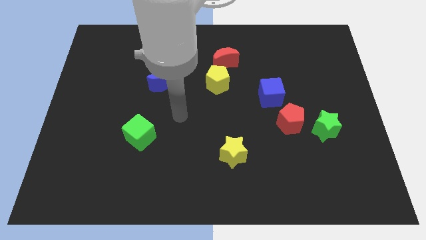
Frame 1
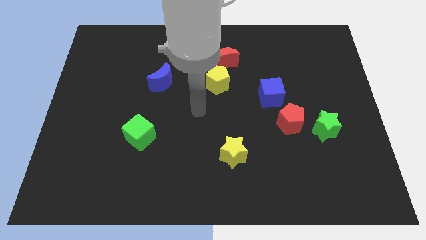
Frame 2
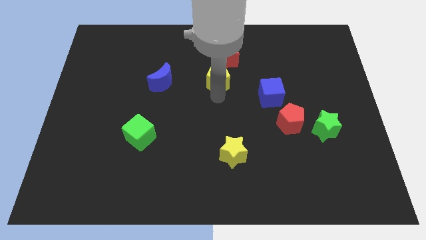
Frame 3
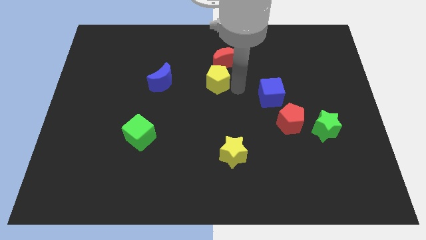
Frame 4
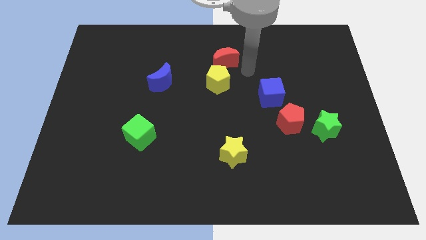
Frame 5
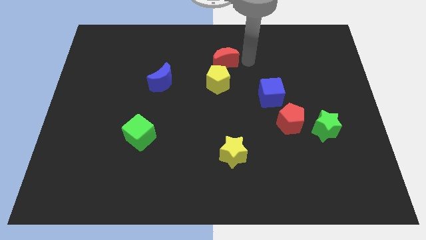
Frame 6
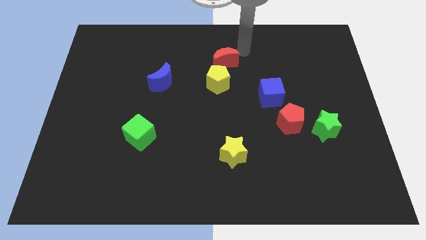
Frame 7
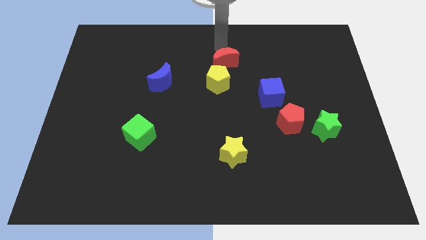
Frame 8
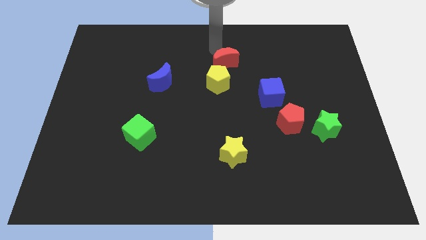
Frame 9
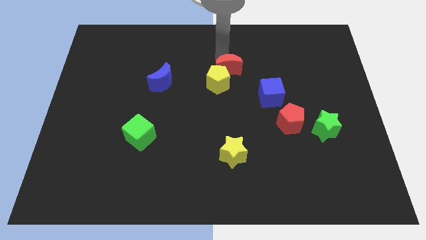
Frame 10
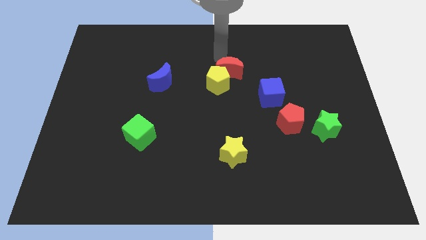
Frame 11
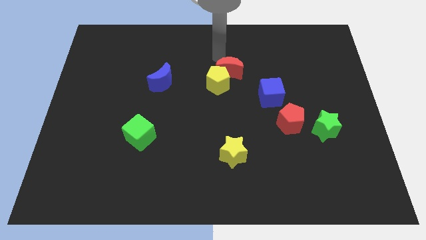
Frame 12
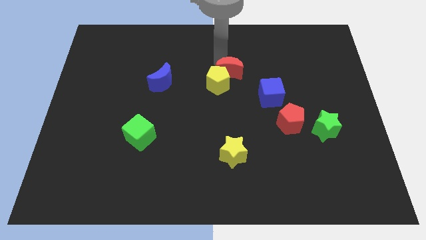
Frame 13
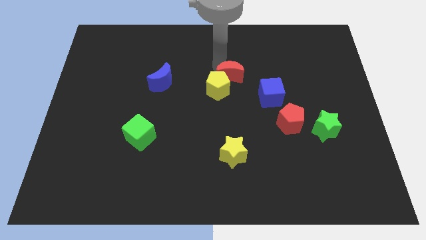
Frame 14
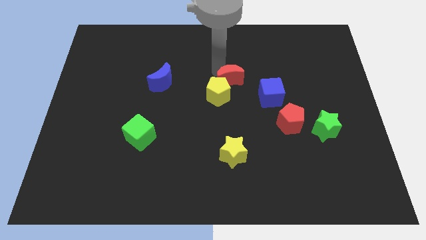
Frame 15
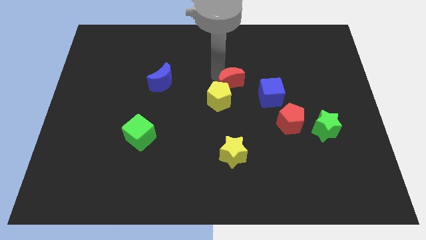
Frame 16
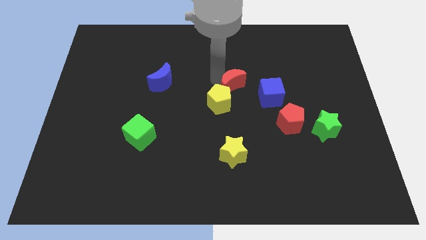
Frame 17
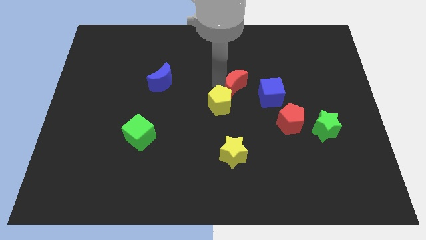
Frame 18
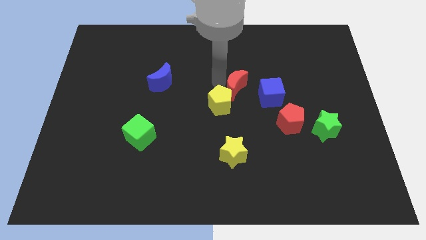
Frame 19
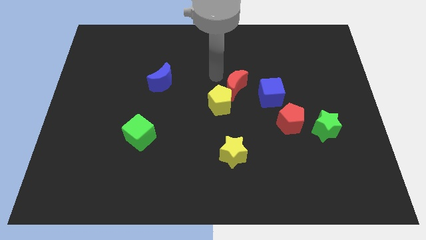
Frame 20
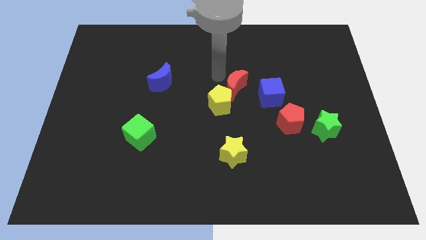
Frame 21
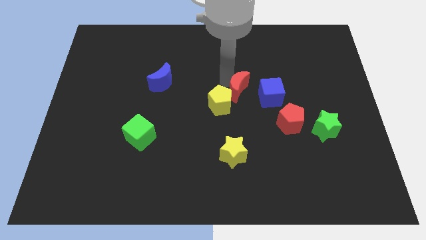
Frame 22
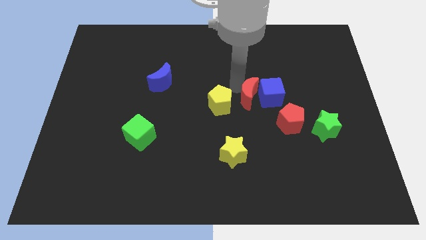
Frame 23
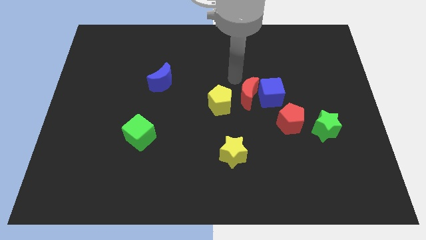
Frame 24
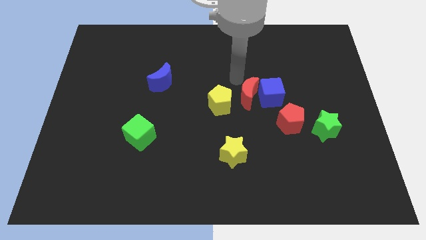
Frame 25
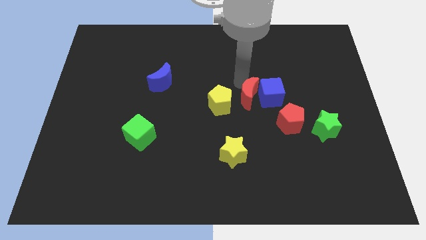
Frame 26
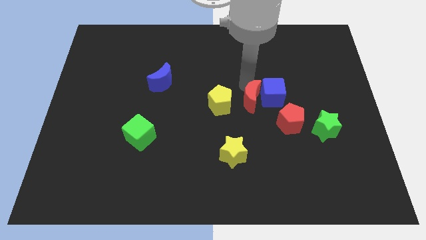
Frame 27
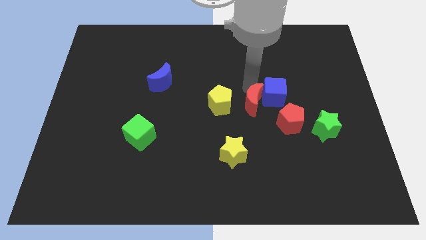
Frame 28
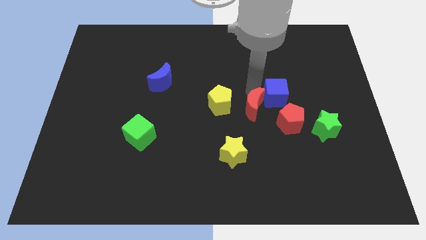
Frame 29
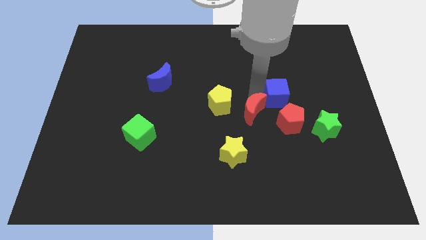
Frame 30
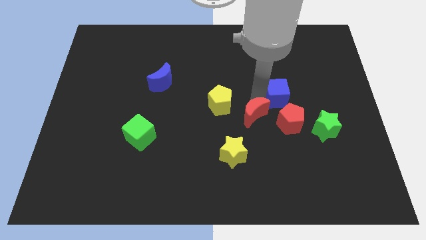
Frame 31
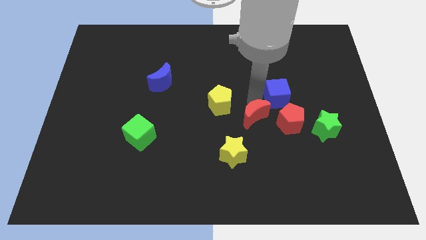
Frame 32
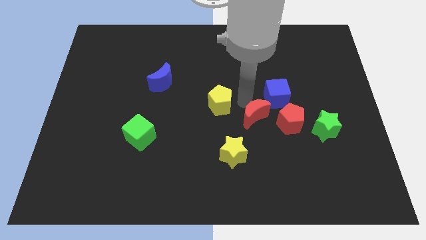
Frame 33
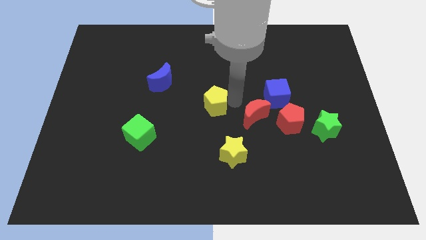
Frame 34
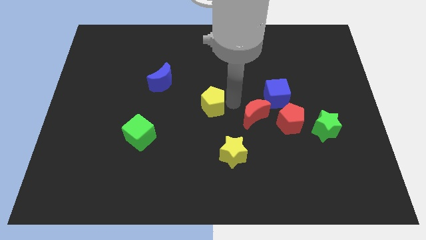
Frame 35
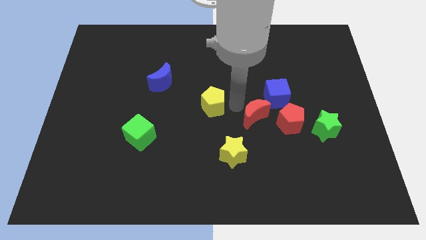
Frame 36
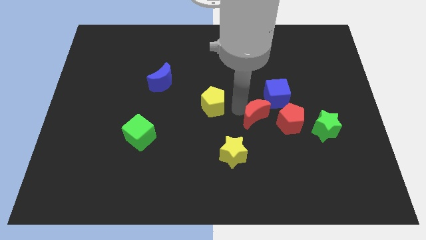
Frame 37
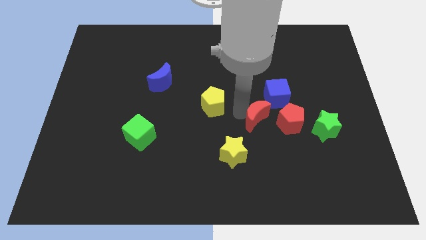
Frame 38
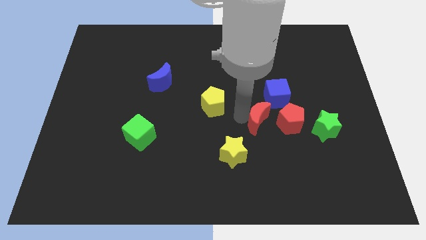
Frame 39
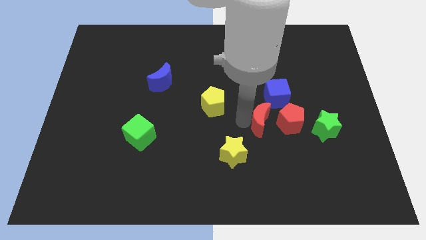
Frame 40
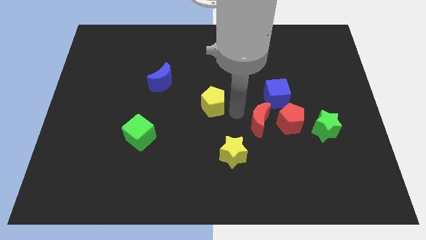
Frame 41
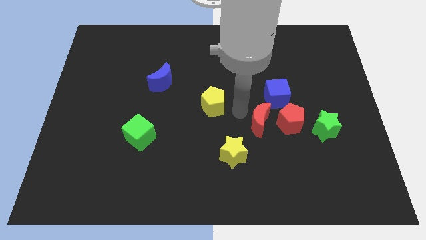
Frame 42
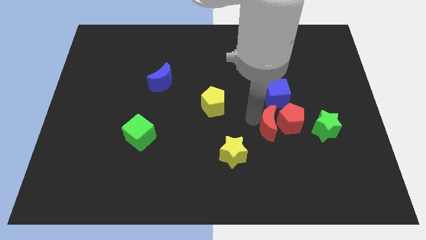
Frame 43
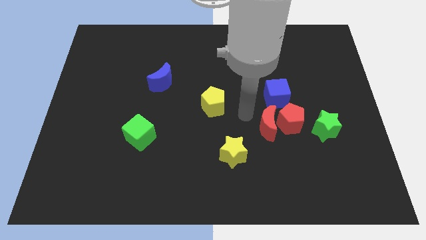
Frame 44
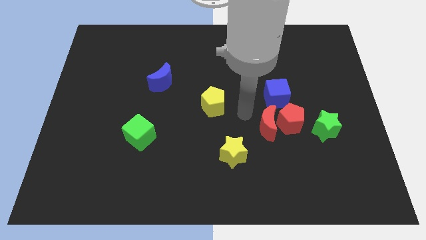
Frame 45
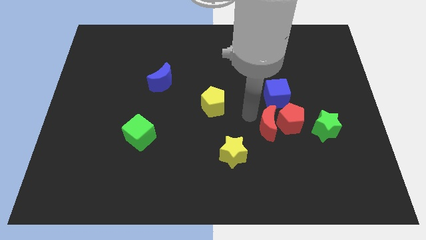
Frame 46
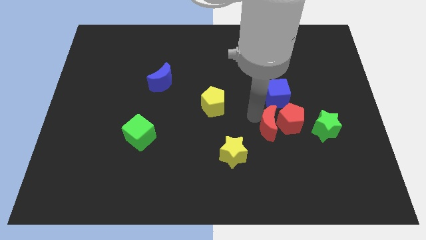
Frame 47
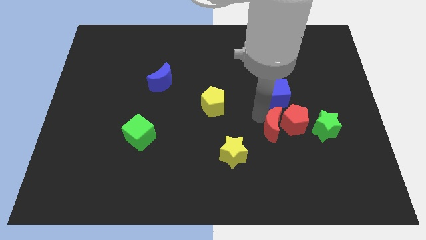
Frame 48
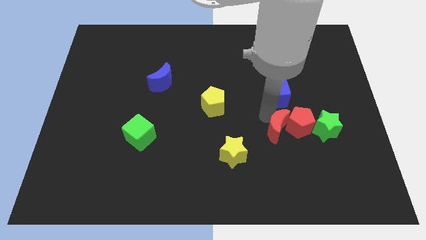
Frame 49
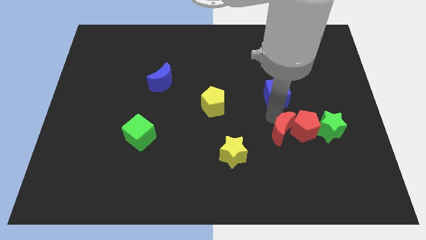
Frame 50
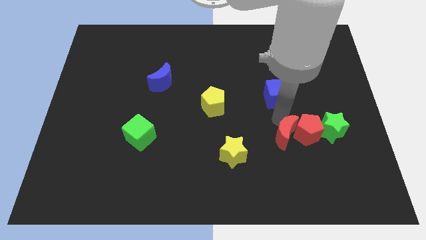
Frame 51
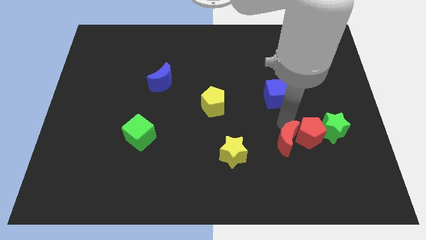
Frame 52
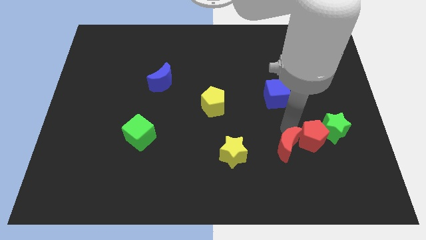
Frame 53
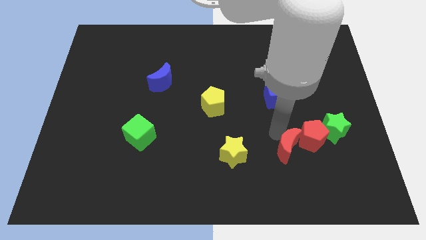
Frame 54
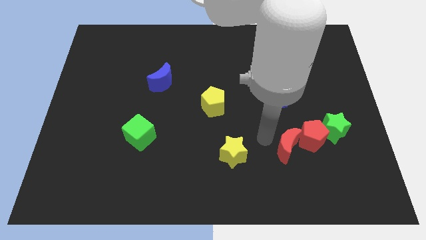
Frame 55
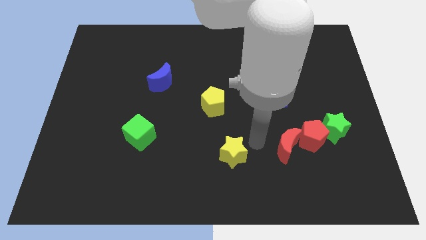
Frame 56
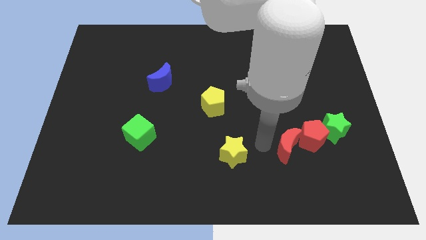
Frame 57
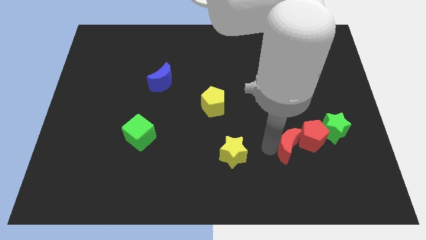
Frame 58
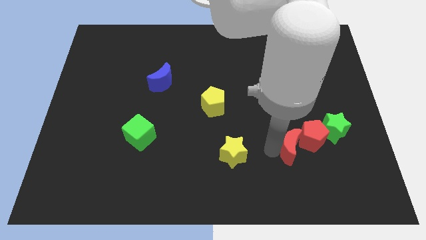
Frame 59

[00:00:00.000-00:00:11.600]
put the red moon diagonally down and to the left of the green star

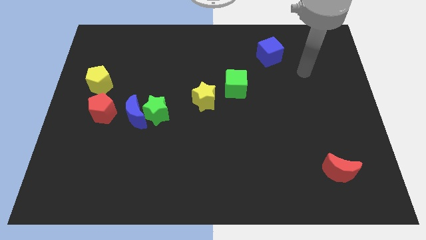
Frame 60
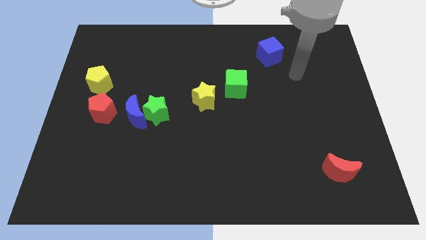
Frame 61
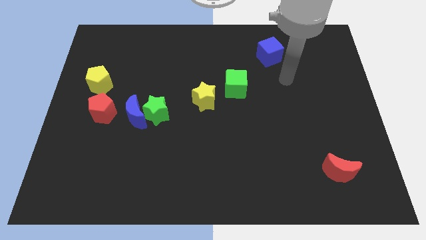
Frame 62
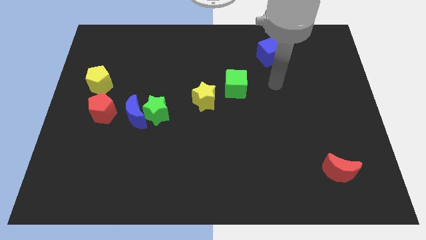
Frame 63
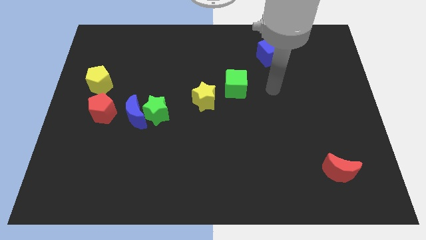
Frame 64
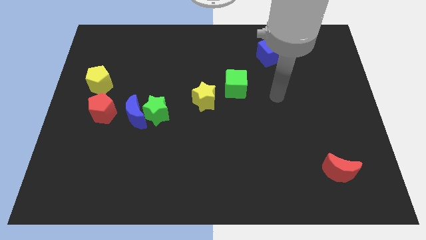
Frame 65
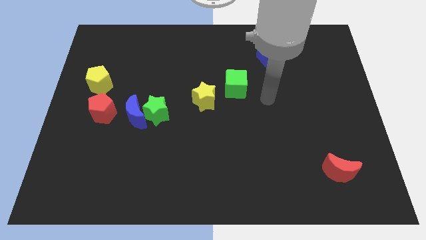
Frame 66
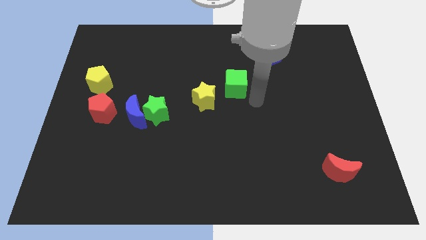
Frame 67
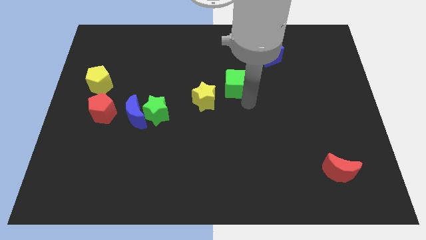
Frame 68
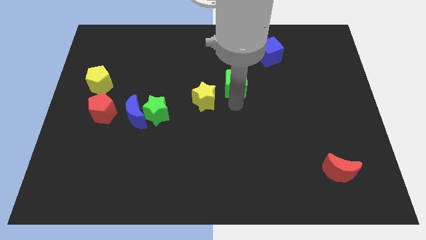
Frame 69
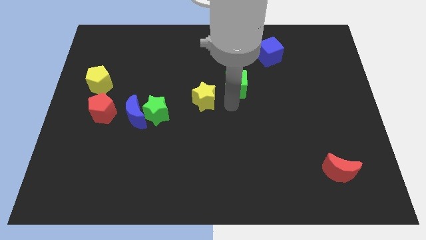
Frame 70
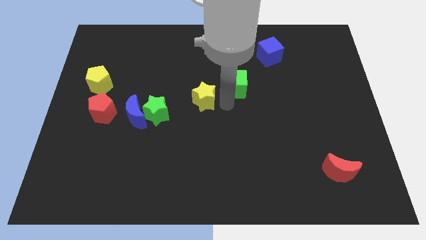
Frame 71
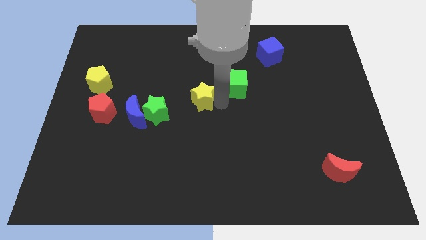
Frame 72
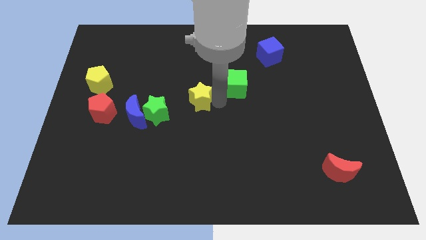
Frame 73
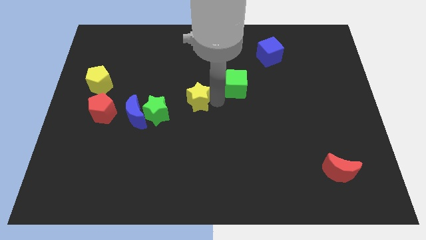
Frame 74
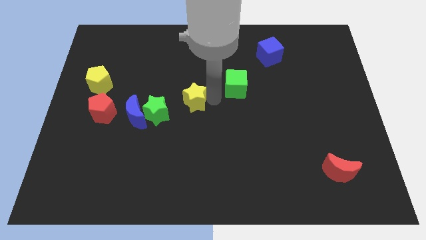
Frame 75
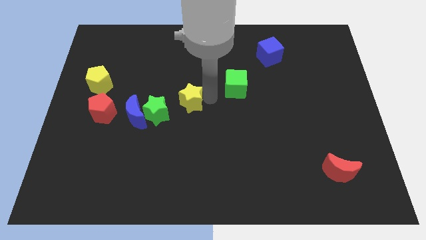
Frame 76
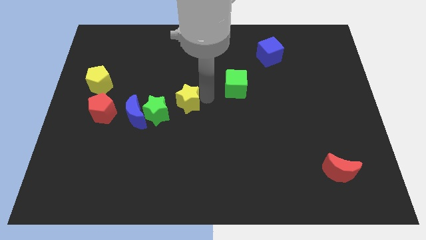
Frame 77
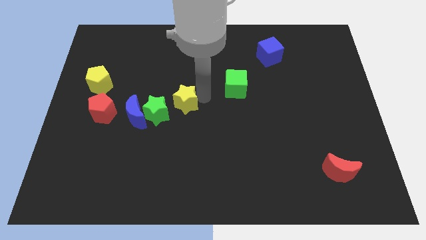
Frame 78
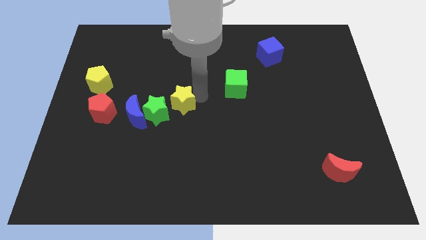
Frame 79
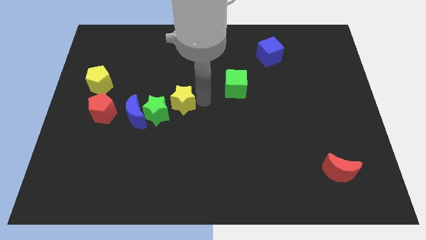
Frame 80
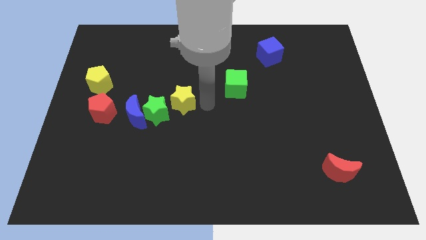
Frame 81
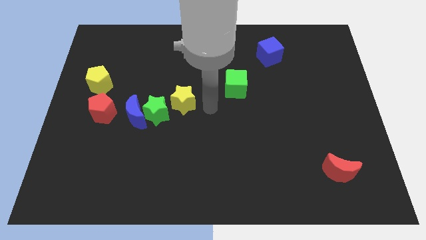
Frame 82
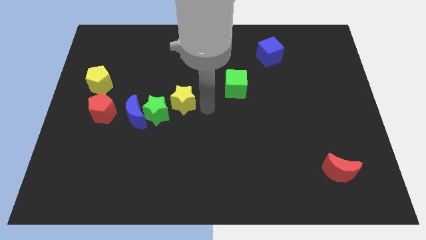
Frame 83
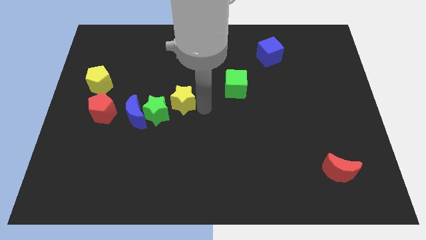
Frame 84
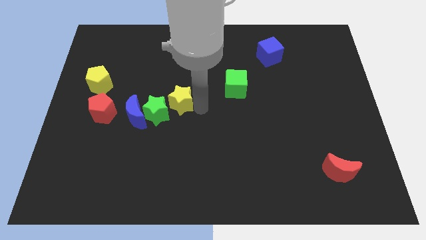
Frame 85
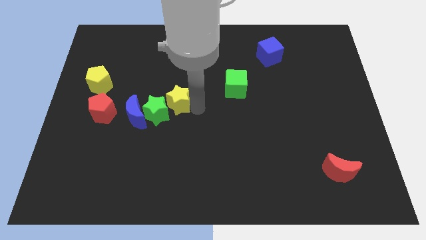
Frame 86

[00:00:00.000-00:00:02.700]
slide the yellow star diagonally up and to the right of the blue moon
